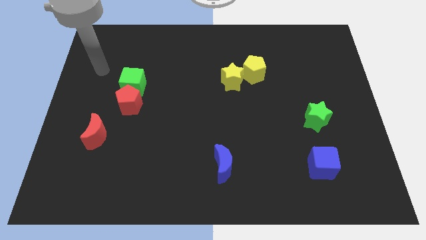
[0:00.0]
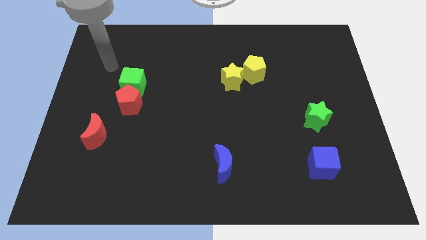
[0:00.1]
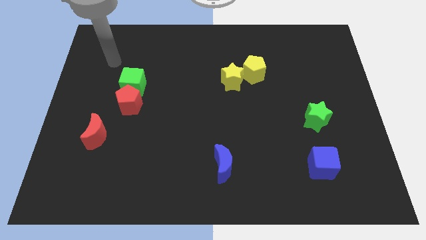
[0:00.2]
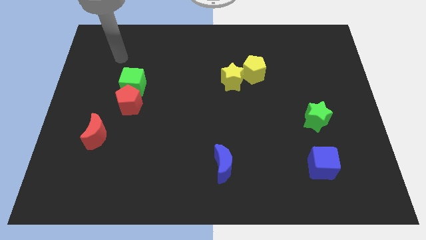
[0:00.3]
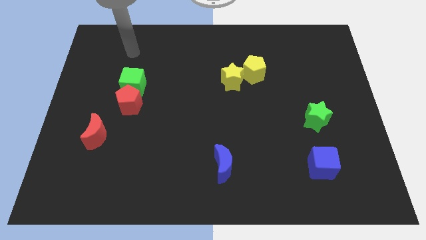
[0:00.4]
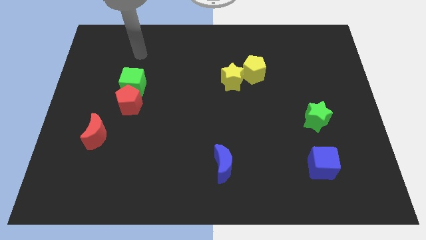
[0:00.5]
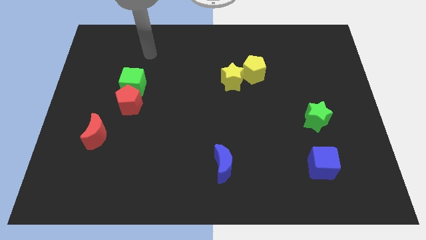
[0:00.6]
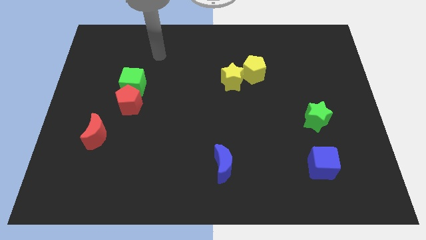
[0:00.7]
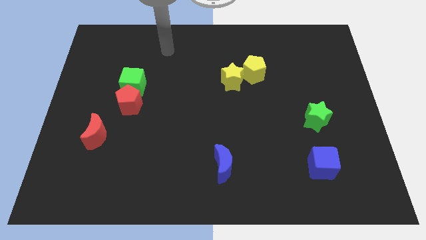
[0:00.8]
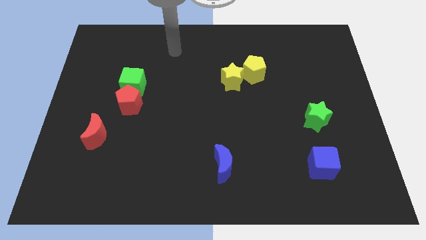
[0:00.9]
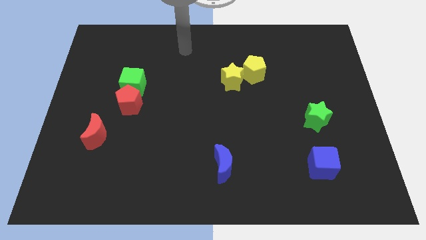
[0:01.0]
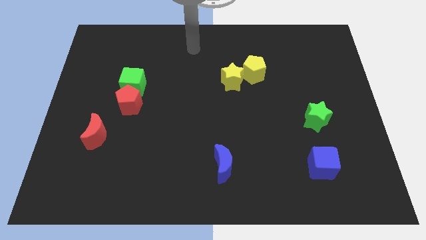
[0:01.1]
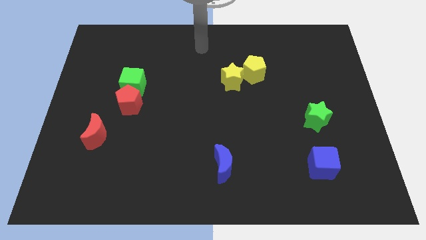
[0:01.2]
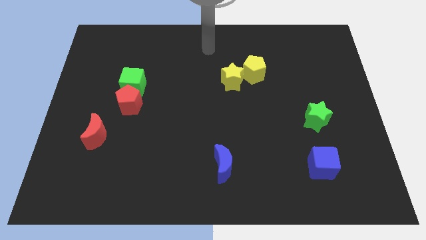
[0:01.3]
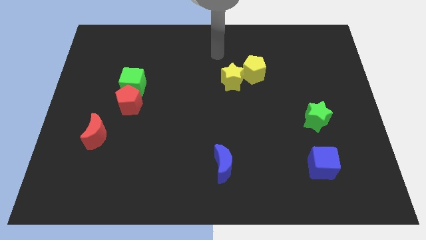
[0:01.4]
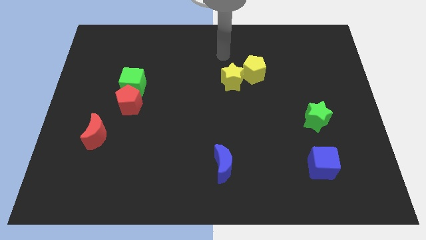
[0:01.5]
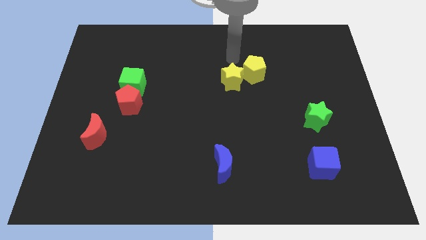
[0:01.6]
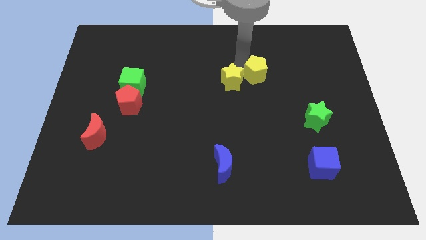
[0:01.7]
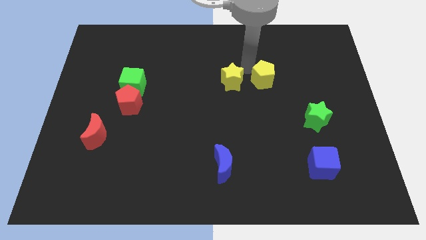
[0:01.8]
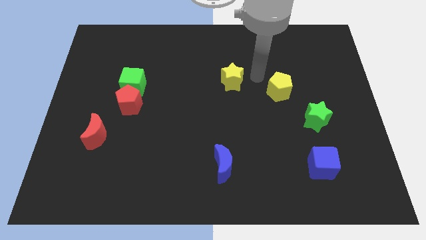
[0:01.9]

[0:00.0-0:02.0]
separate the yellow star from the yellow pentagon

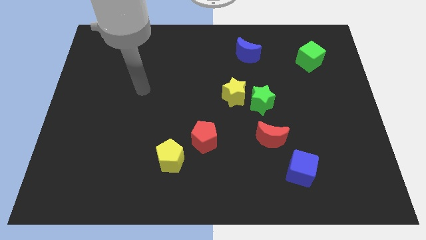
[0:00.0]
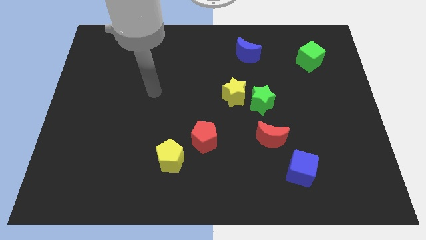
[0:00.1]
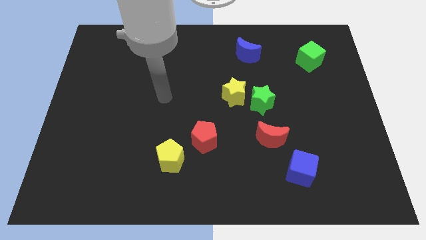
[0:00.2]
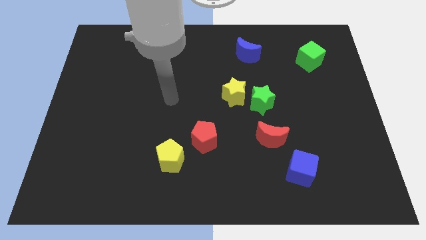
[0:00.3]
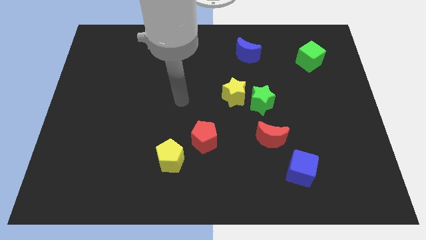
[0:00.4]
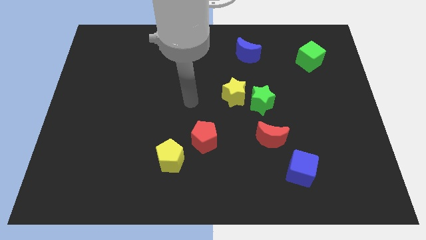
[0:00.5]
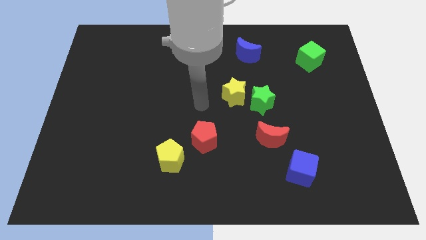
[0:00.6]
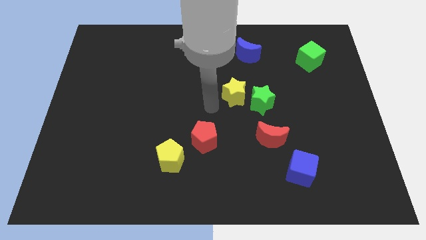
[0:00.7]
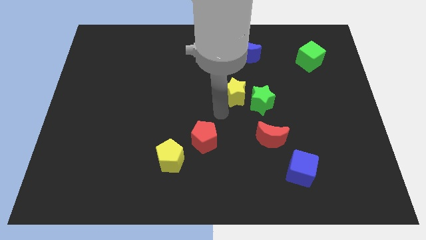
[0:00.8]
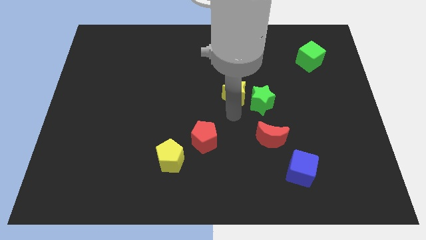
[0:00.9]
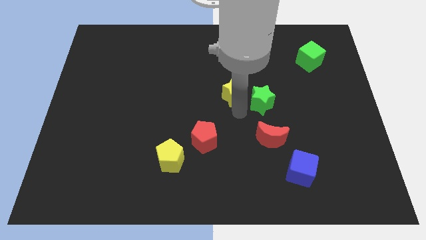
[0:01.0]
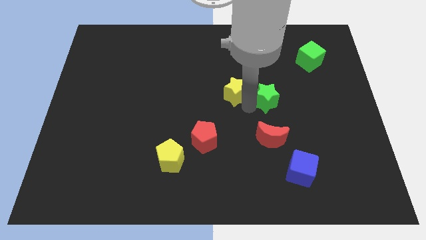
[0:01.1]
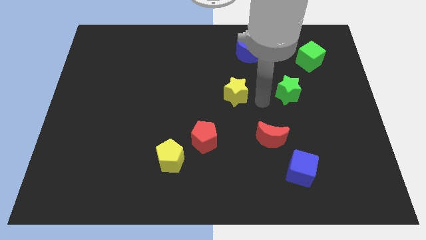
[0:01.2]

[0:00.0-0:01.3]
pull the yellow star apart from the green star

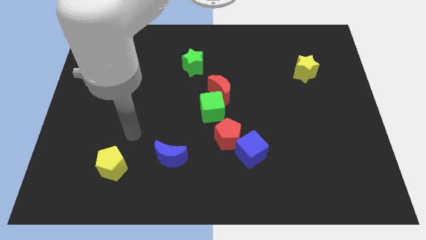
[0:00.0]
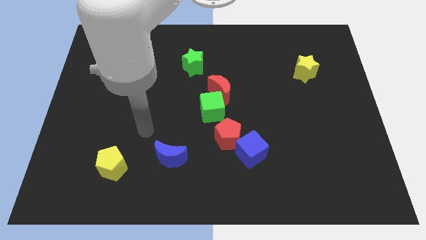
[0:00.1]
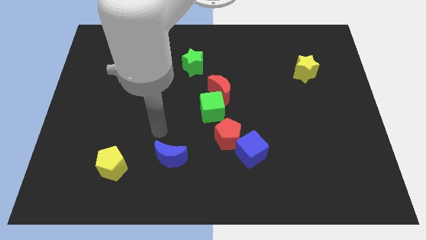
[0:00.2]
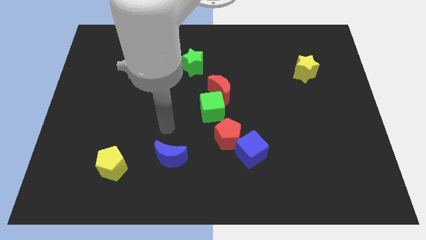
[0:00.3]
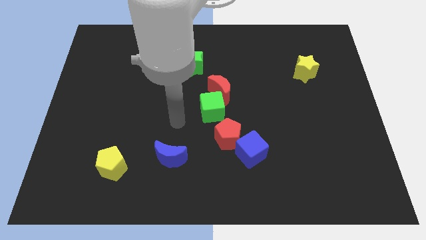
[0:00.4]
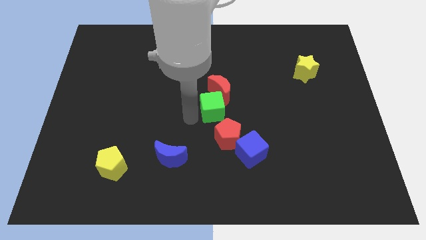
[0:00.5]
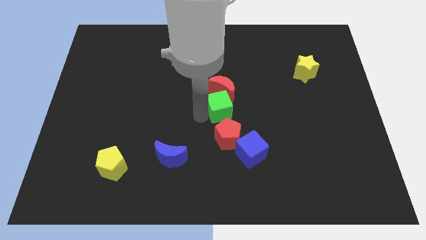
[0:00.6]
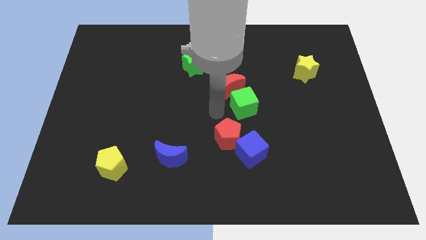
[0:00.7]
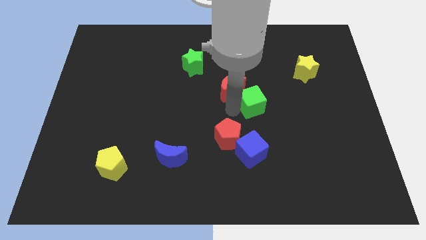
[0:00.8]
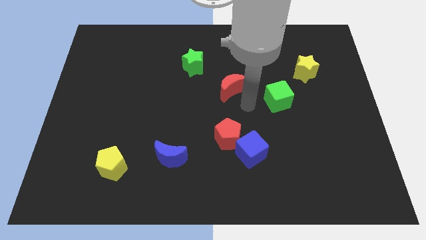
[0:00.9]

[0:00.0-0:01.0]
move the red moon away from the green cube

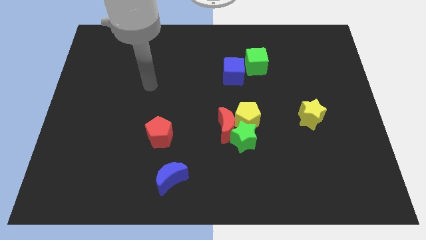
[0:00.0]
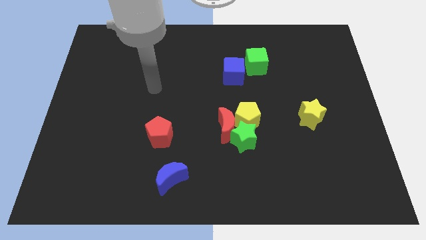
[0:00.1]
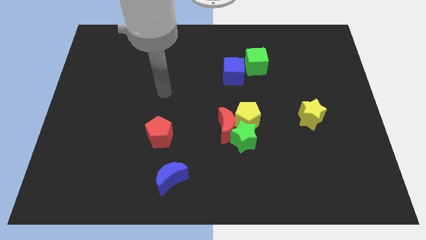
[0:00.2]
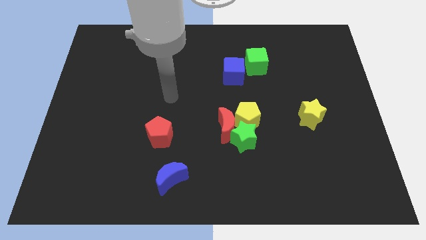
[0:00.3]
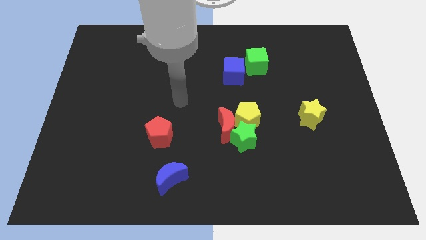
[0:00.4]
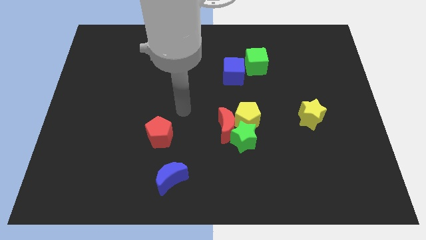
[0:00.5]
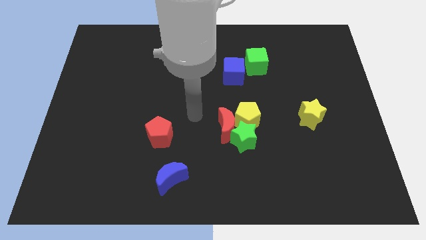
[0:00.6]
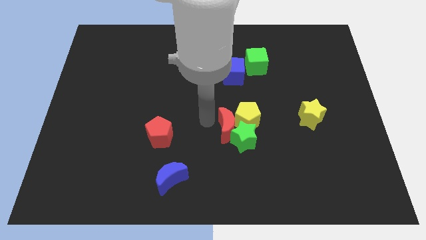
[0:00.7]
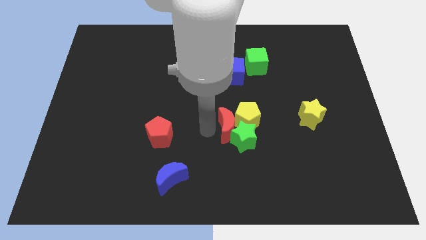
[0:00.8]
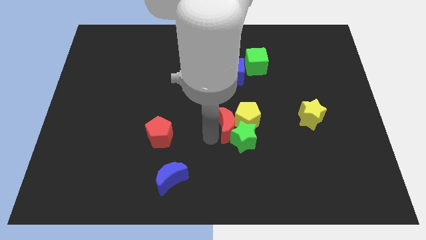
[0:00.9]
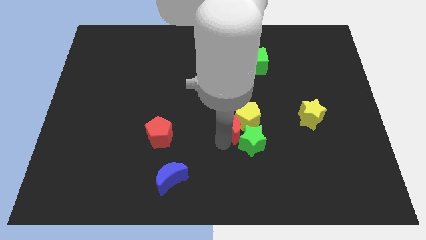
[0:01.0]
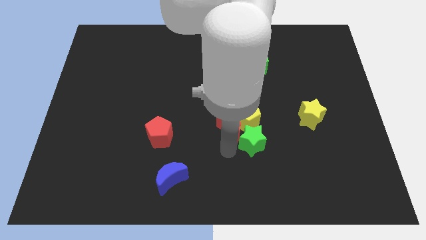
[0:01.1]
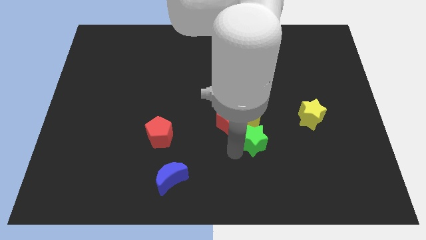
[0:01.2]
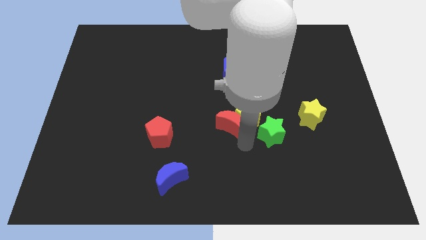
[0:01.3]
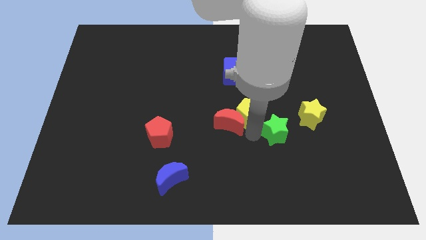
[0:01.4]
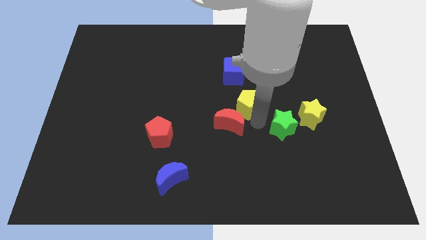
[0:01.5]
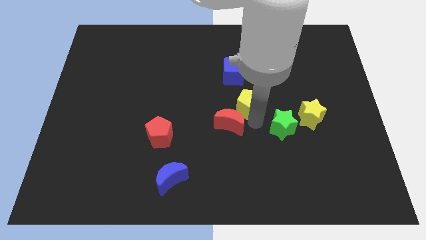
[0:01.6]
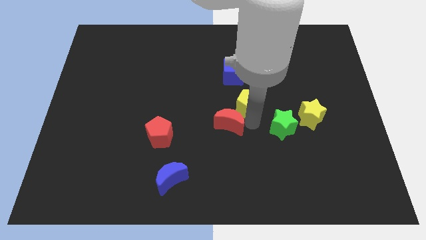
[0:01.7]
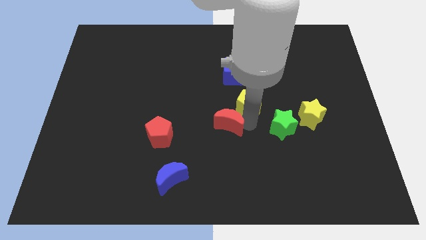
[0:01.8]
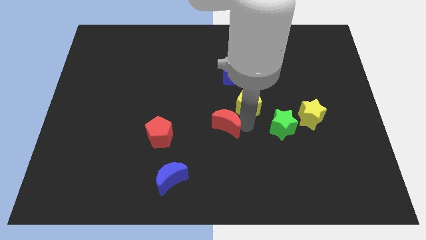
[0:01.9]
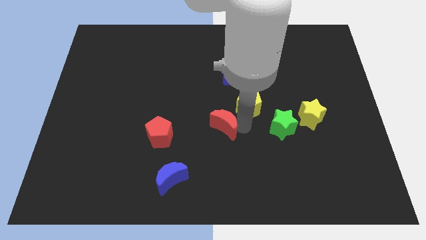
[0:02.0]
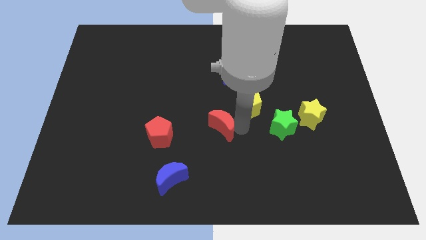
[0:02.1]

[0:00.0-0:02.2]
separate the red moon from the green star and yellow pentagon

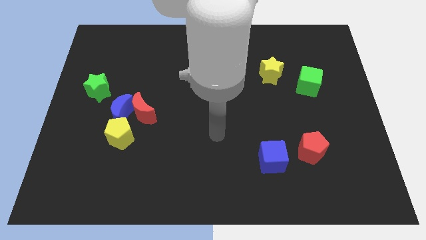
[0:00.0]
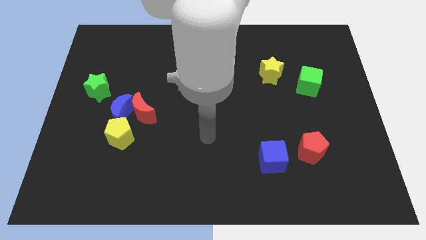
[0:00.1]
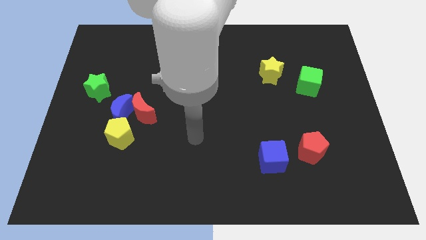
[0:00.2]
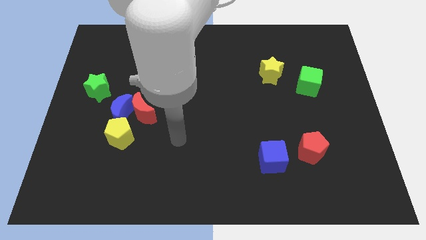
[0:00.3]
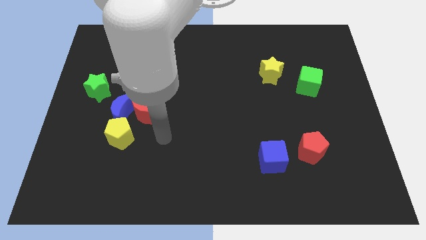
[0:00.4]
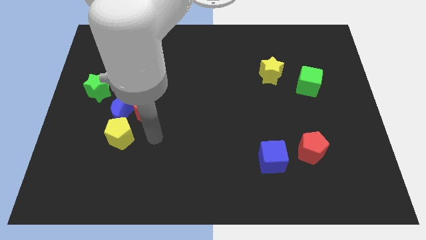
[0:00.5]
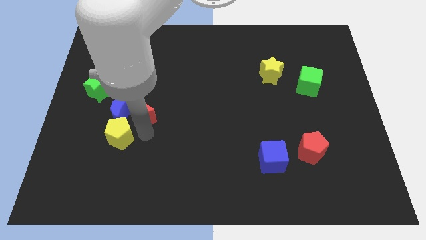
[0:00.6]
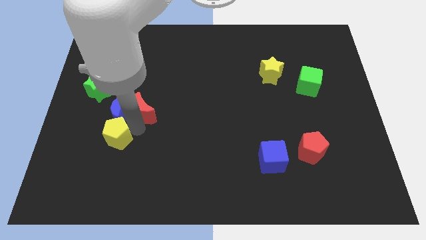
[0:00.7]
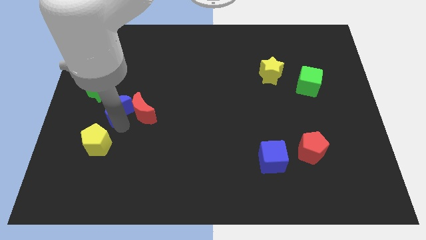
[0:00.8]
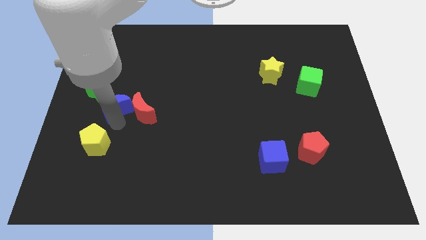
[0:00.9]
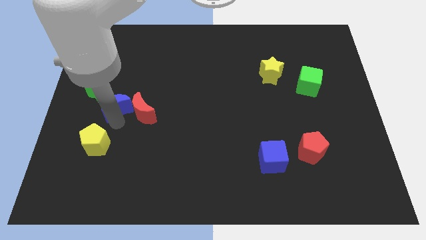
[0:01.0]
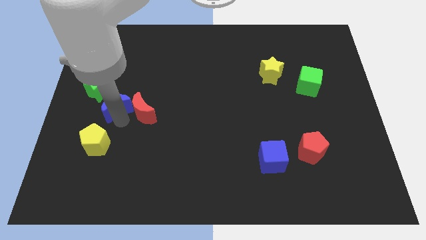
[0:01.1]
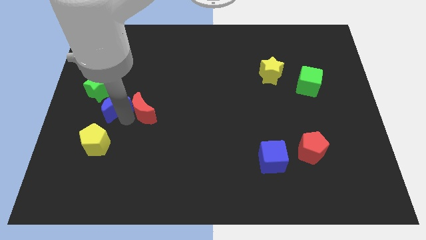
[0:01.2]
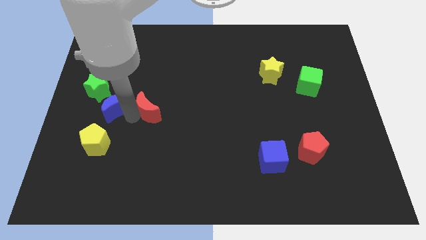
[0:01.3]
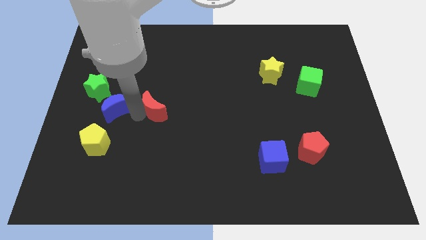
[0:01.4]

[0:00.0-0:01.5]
separate the red moon from the blue moon and yellow pentagon

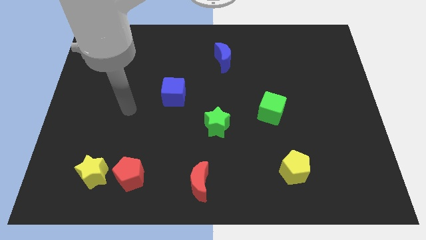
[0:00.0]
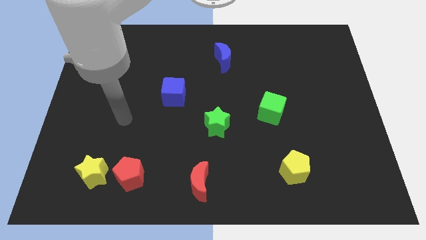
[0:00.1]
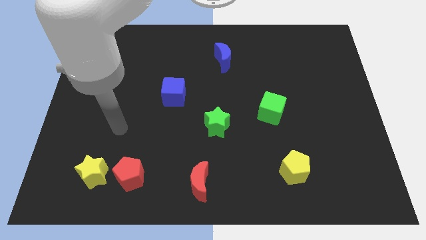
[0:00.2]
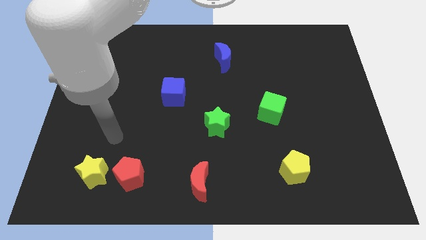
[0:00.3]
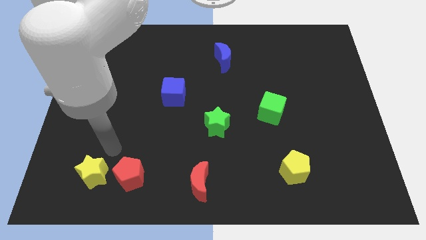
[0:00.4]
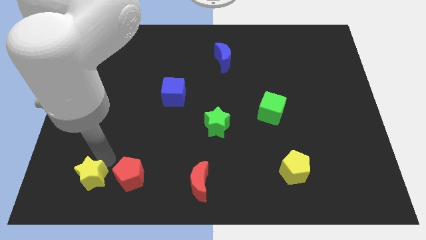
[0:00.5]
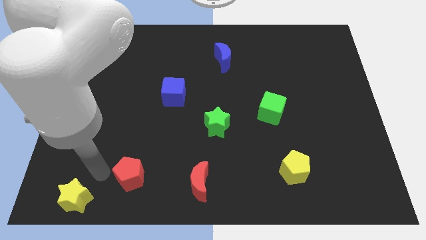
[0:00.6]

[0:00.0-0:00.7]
move the red pentagon away from the yellow star

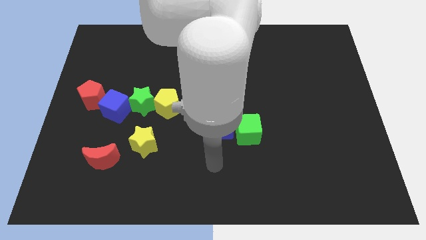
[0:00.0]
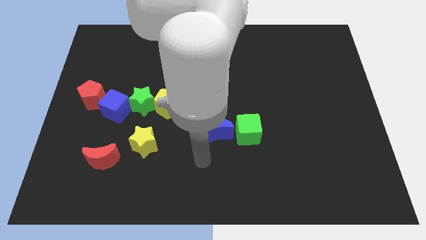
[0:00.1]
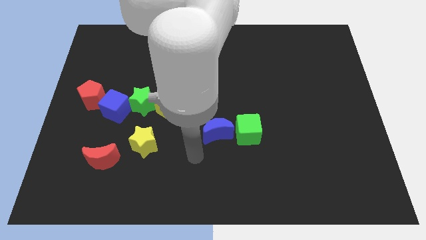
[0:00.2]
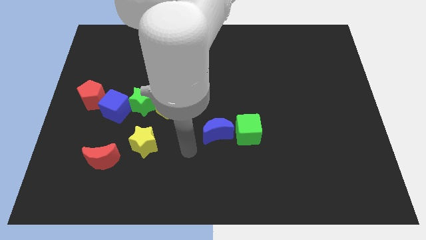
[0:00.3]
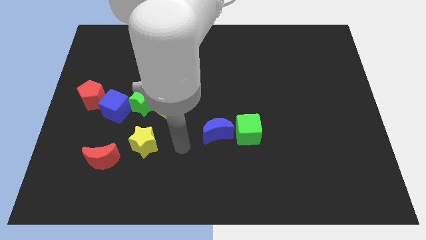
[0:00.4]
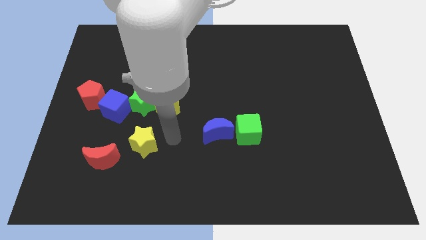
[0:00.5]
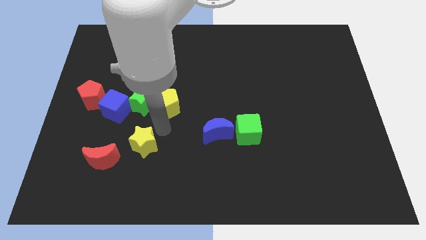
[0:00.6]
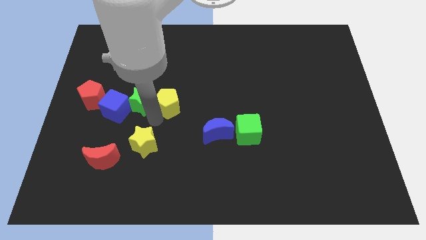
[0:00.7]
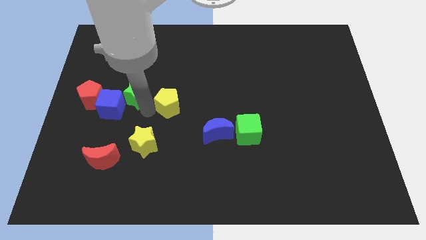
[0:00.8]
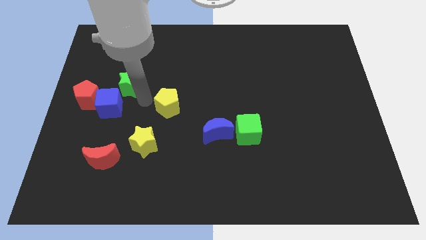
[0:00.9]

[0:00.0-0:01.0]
move the yellow pentagon away from the green star
